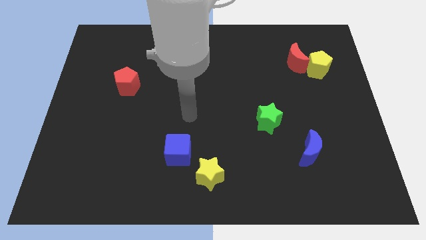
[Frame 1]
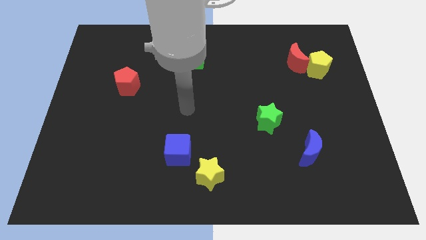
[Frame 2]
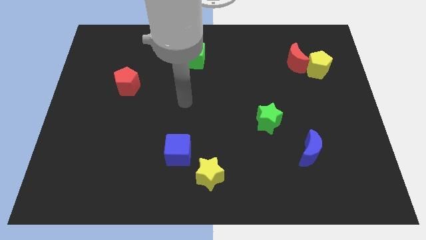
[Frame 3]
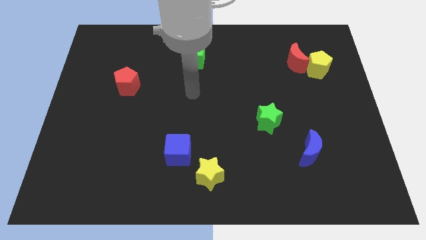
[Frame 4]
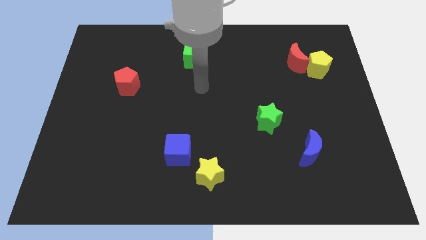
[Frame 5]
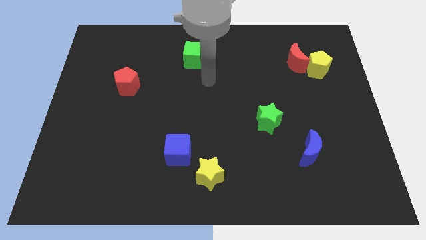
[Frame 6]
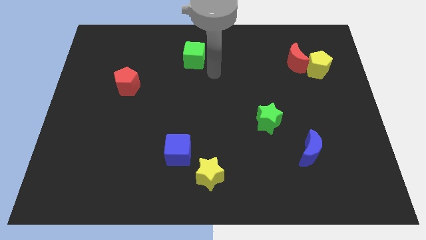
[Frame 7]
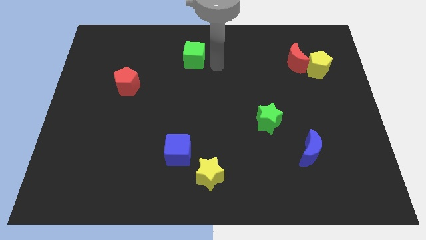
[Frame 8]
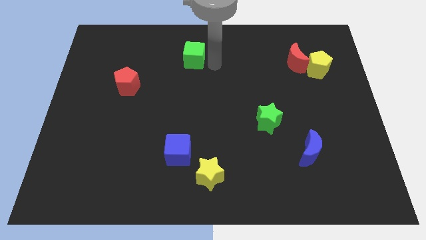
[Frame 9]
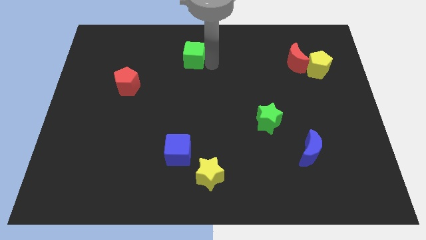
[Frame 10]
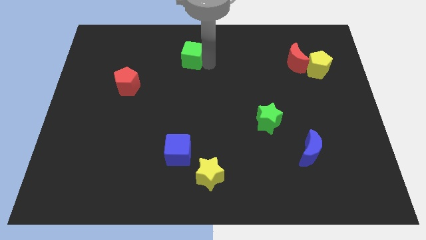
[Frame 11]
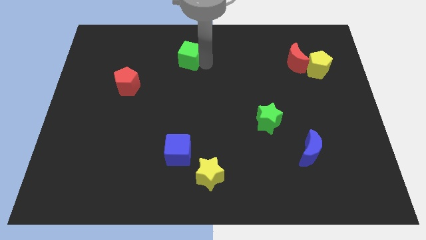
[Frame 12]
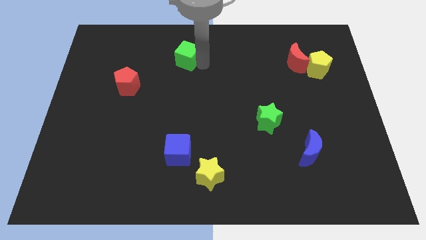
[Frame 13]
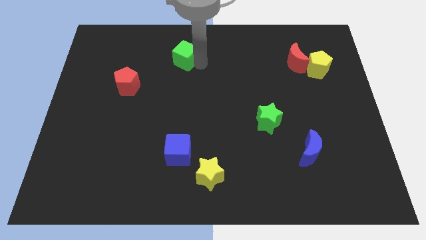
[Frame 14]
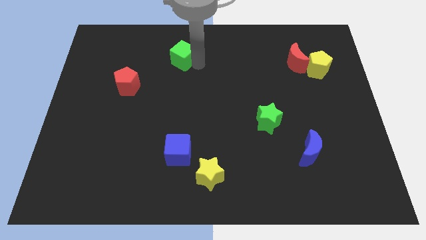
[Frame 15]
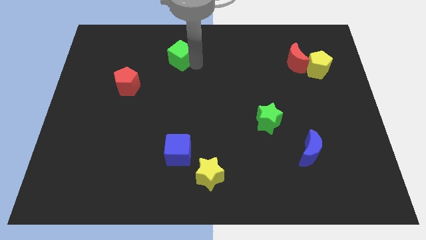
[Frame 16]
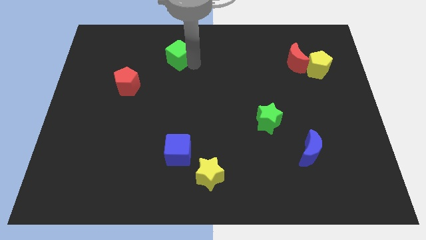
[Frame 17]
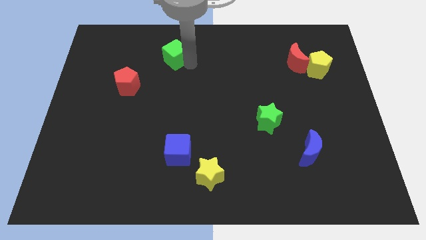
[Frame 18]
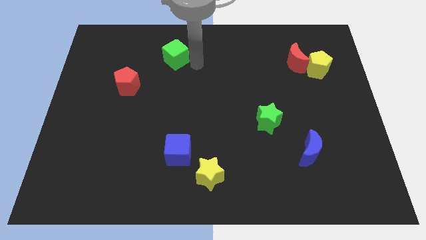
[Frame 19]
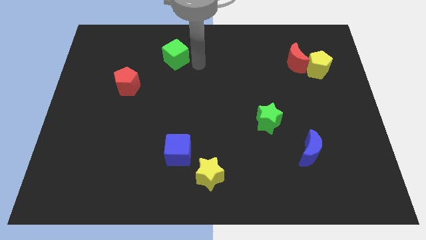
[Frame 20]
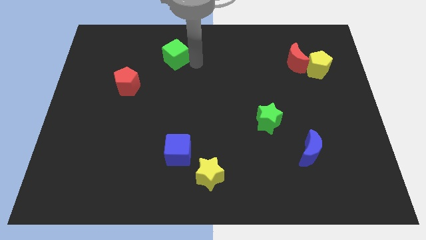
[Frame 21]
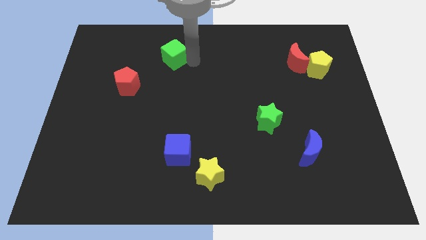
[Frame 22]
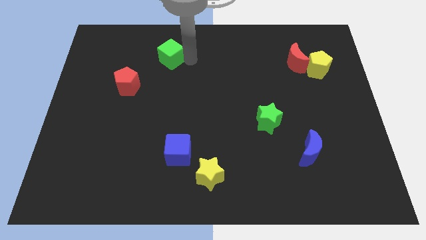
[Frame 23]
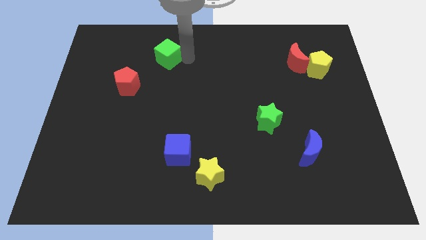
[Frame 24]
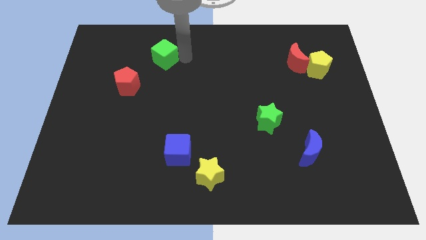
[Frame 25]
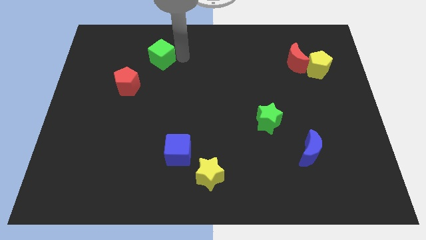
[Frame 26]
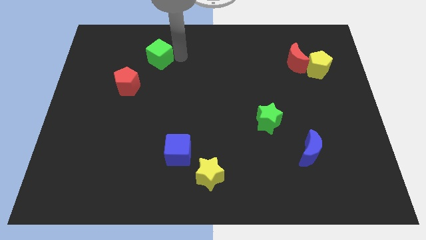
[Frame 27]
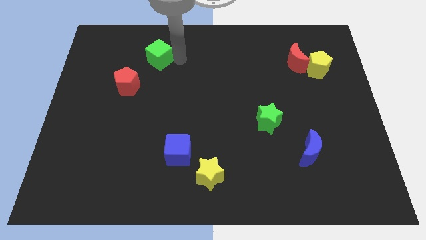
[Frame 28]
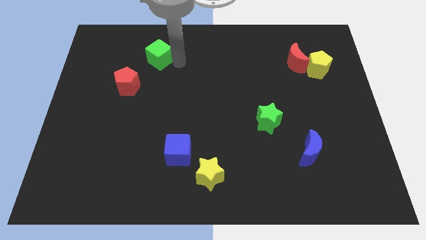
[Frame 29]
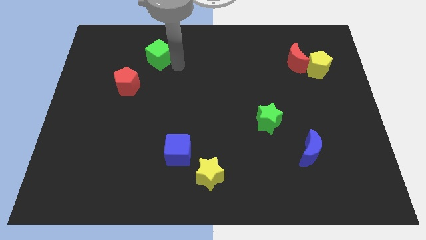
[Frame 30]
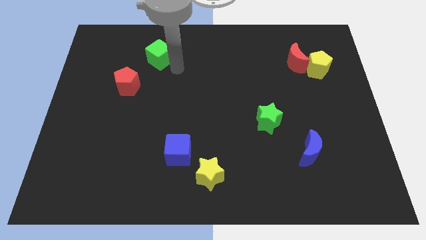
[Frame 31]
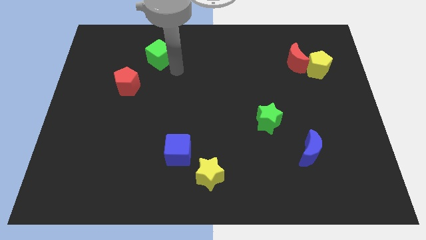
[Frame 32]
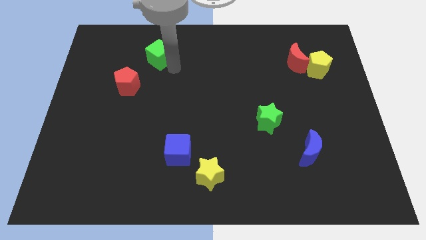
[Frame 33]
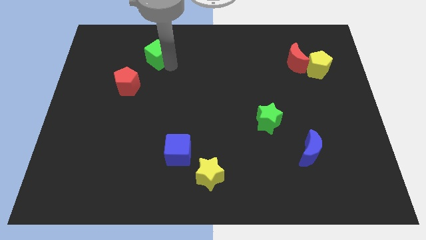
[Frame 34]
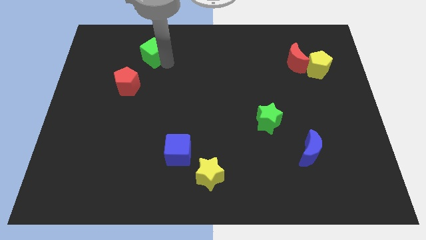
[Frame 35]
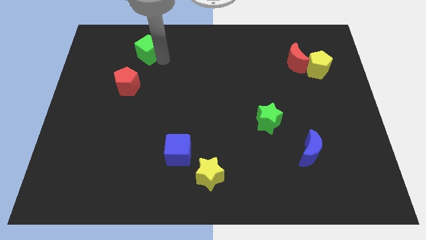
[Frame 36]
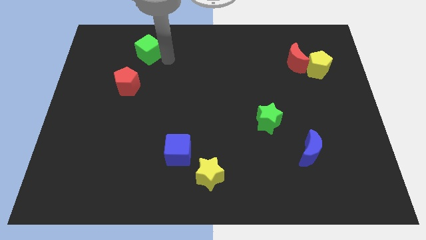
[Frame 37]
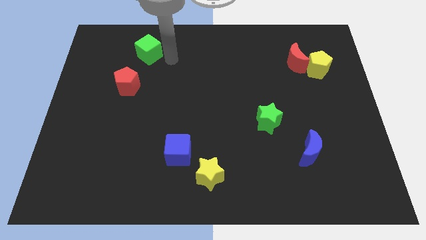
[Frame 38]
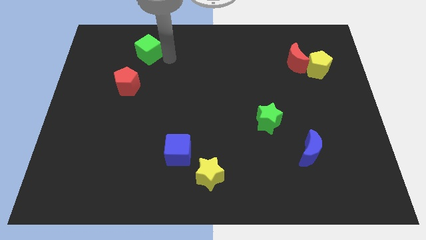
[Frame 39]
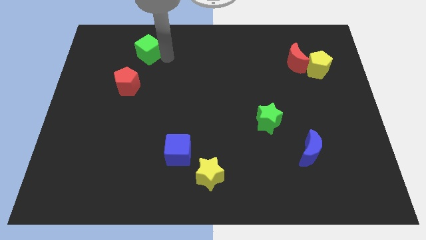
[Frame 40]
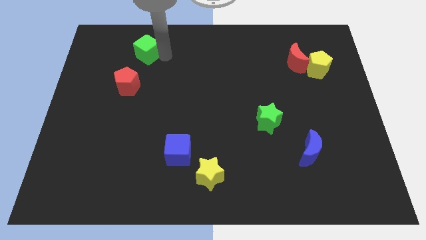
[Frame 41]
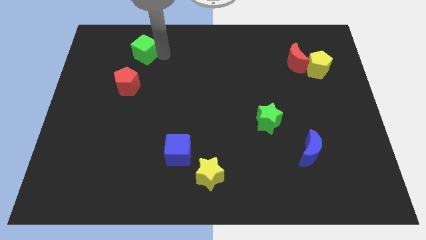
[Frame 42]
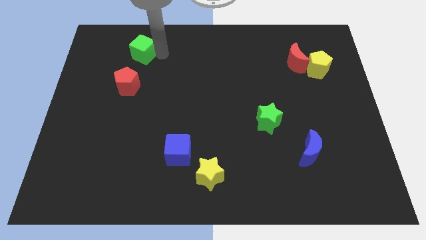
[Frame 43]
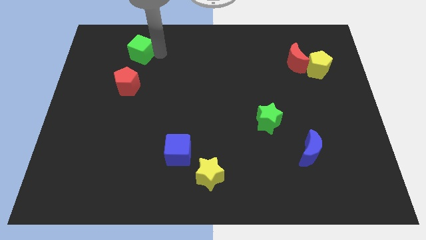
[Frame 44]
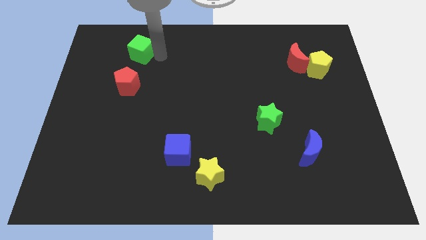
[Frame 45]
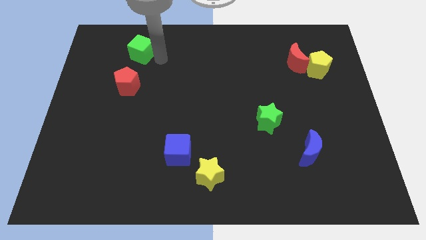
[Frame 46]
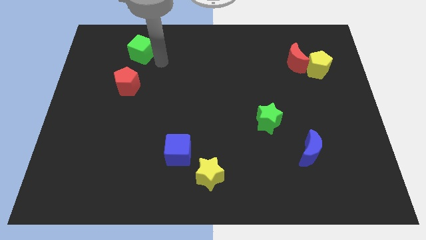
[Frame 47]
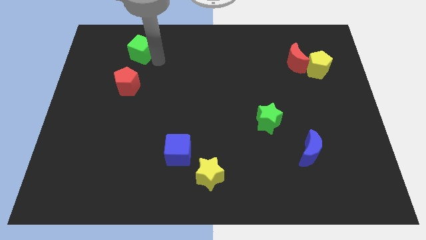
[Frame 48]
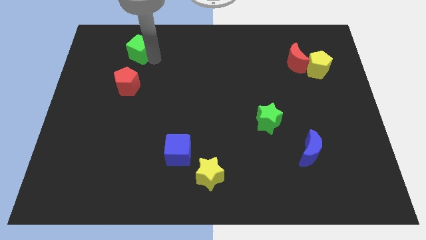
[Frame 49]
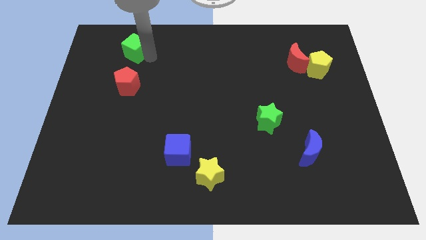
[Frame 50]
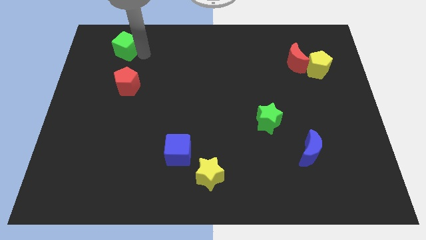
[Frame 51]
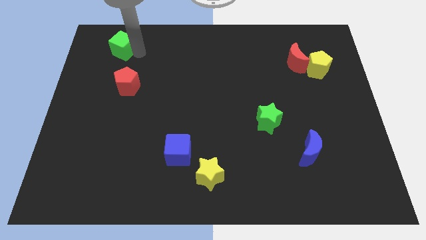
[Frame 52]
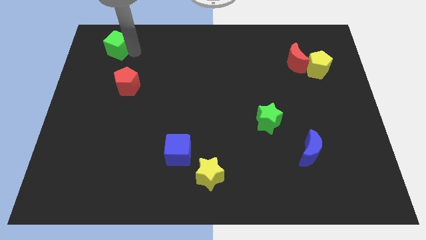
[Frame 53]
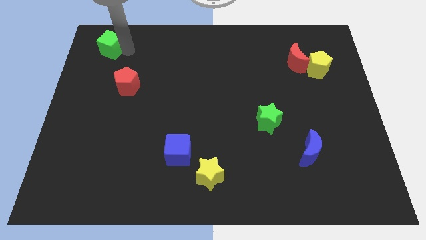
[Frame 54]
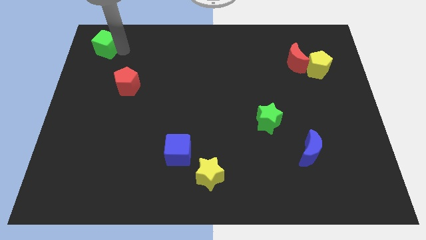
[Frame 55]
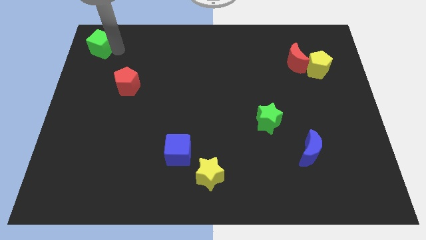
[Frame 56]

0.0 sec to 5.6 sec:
slide the green cube to the top left

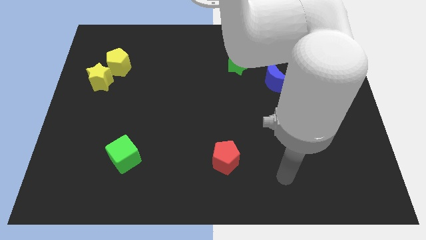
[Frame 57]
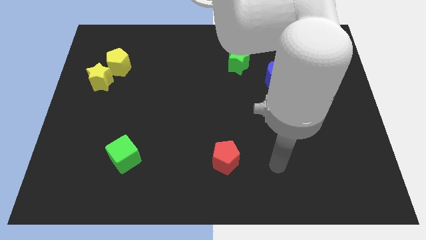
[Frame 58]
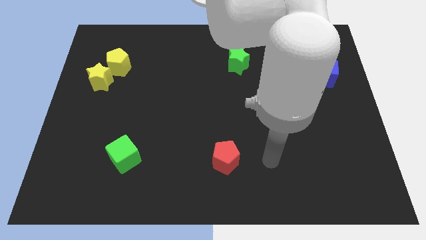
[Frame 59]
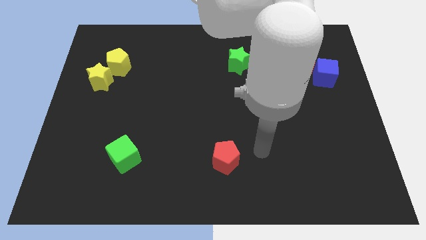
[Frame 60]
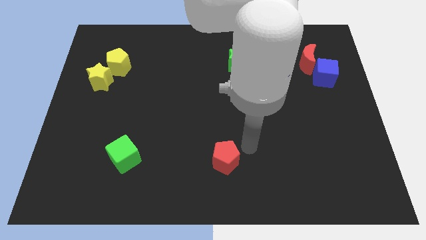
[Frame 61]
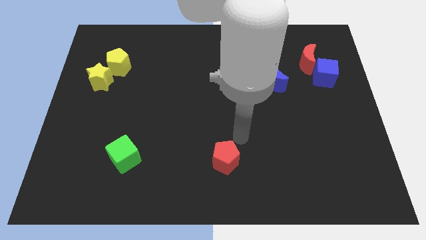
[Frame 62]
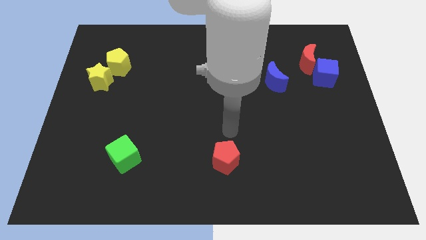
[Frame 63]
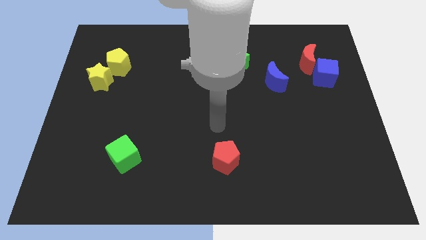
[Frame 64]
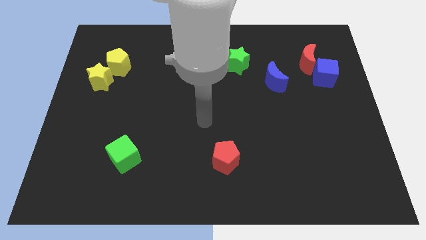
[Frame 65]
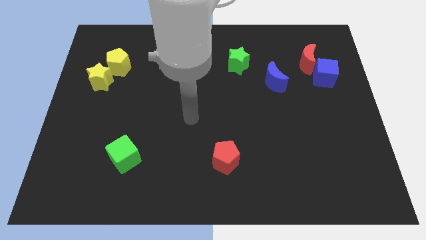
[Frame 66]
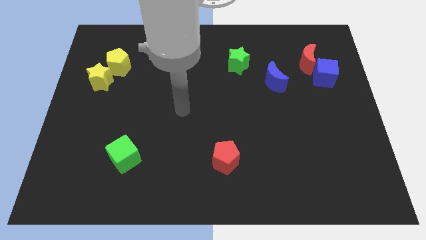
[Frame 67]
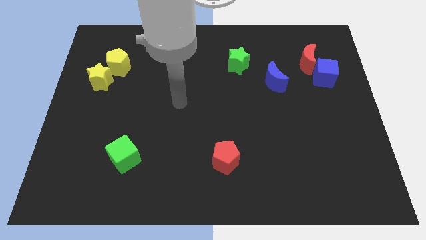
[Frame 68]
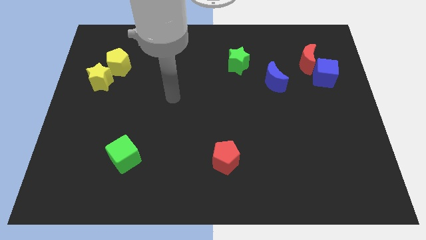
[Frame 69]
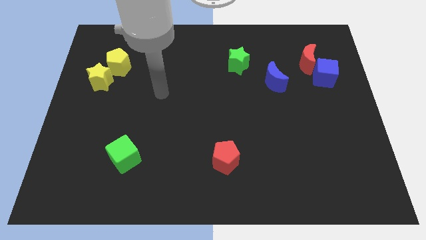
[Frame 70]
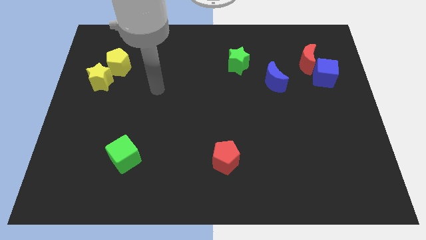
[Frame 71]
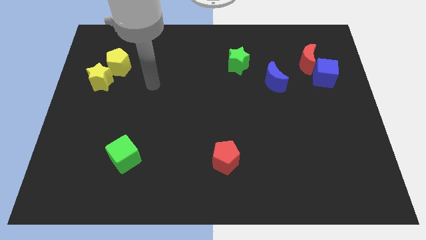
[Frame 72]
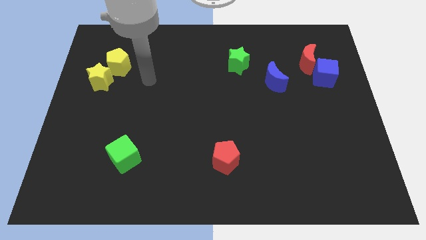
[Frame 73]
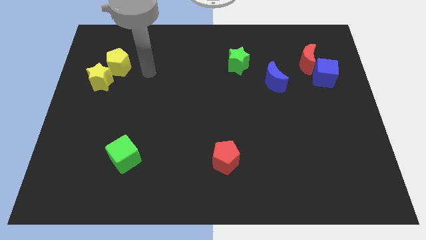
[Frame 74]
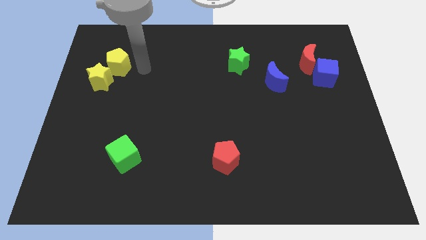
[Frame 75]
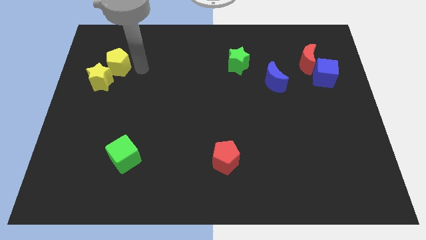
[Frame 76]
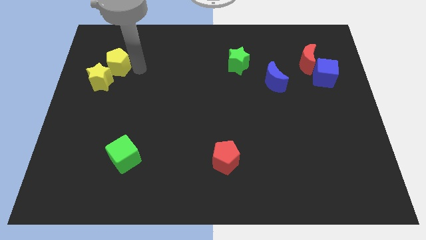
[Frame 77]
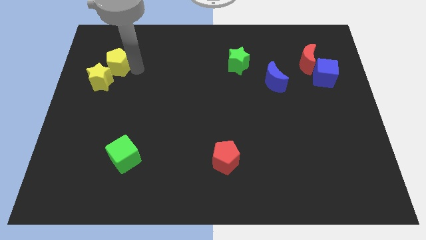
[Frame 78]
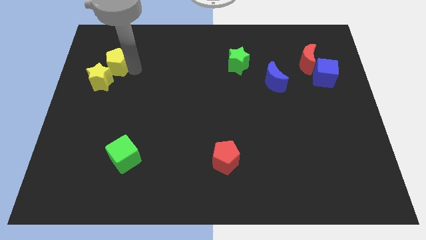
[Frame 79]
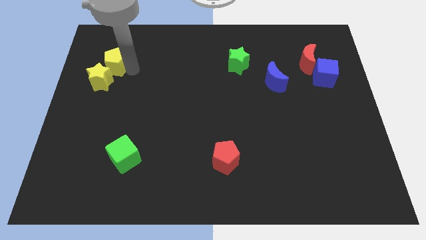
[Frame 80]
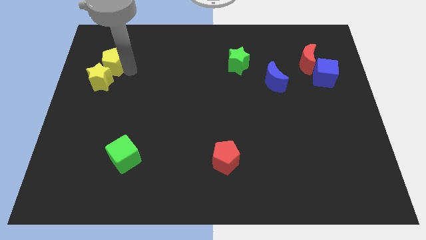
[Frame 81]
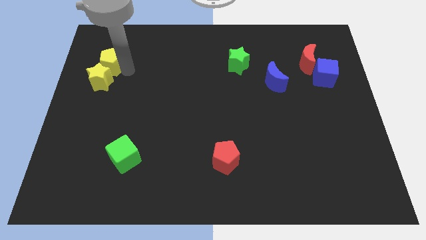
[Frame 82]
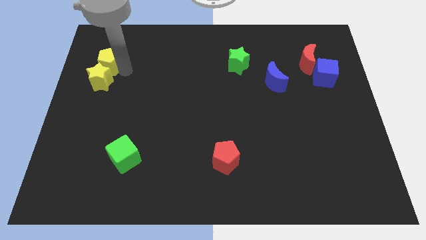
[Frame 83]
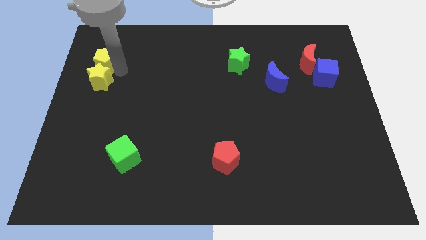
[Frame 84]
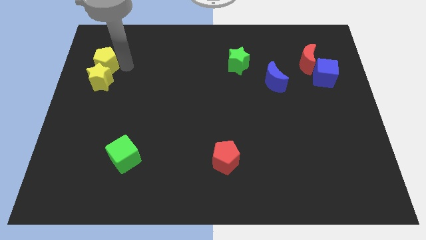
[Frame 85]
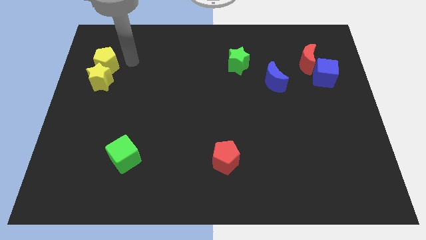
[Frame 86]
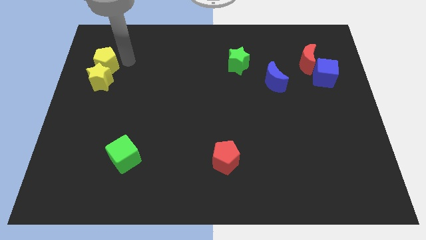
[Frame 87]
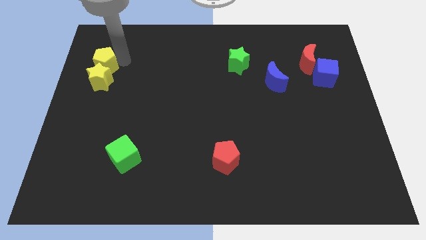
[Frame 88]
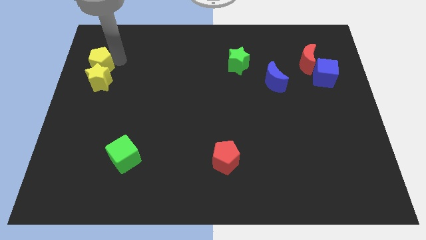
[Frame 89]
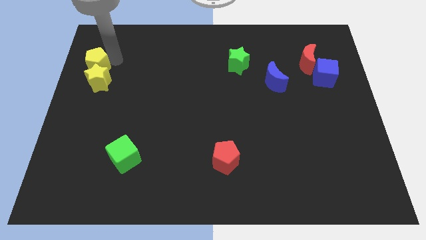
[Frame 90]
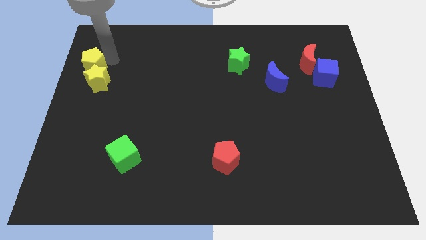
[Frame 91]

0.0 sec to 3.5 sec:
move the yellow pentagon to the left side
